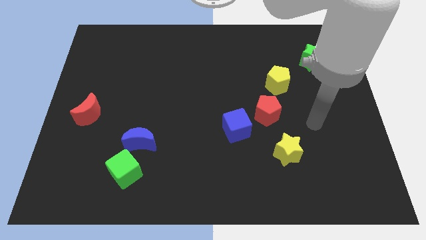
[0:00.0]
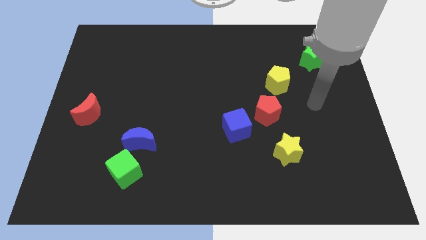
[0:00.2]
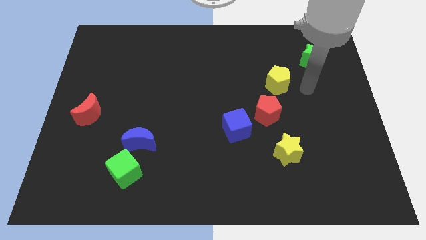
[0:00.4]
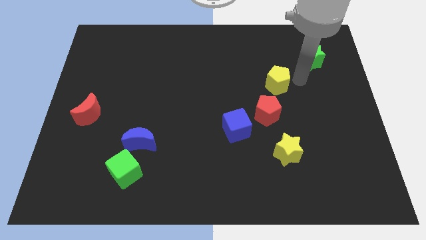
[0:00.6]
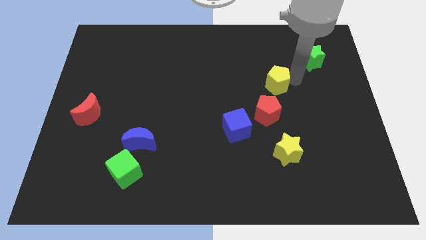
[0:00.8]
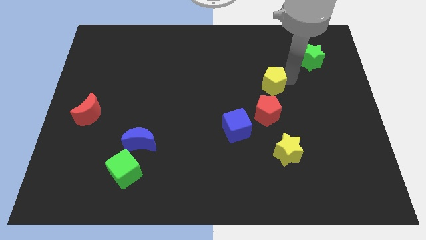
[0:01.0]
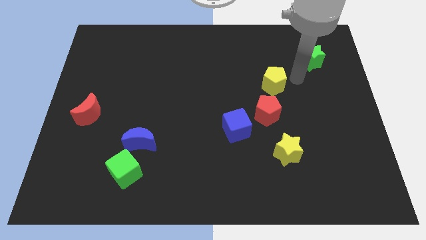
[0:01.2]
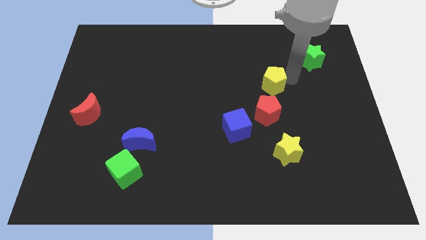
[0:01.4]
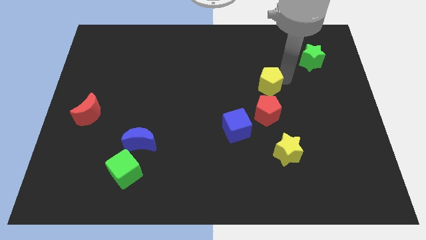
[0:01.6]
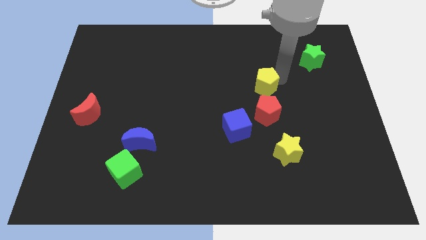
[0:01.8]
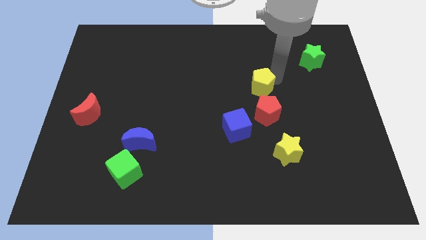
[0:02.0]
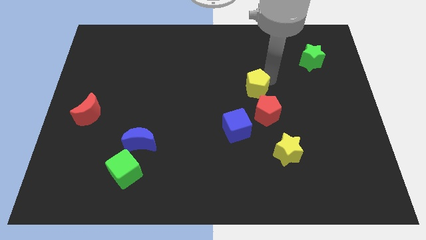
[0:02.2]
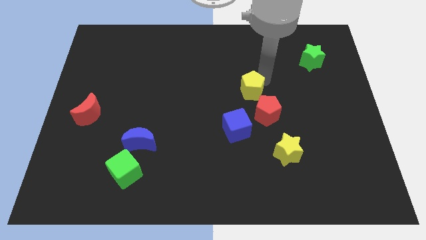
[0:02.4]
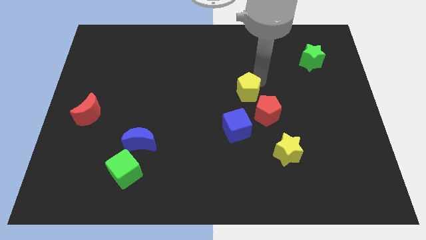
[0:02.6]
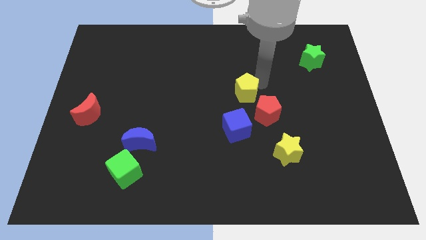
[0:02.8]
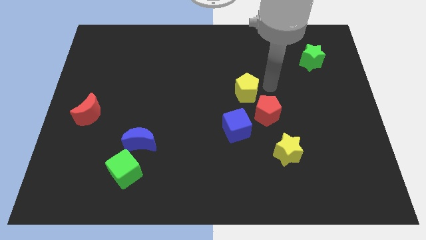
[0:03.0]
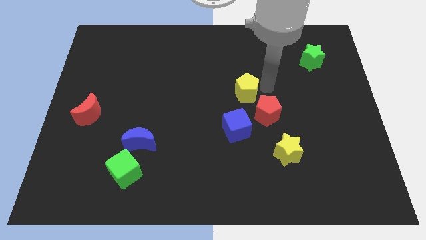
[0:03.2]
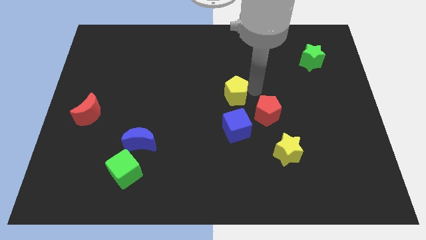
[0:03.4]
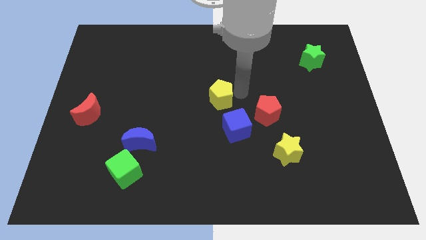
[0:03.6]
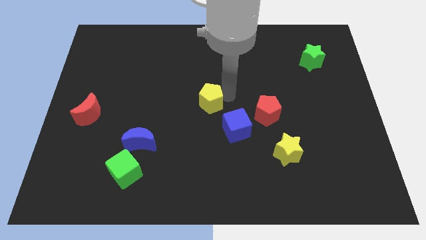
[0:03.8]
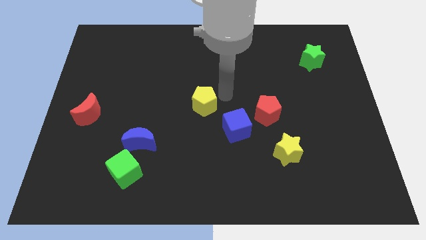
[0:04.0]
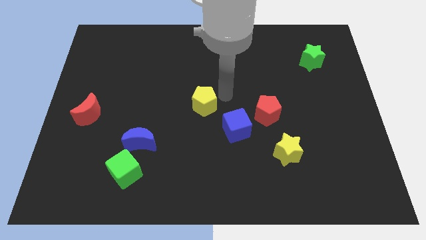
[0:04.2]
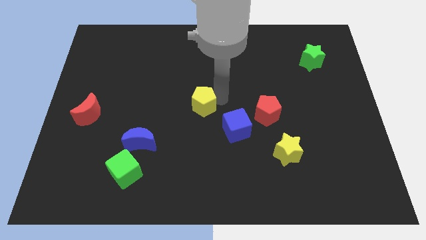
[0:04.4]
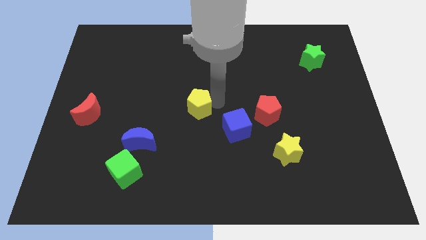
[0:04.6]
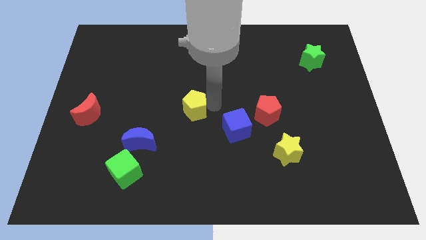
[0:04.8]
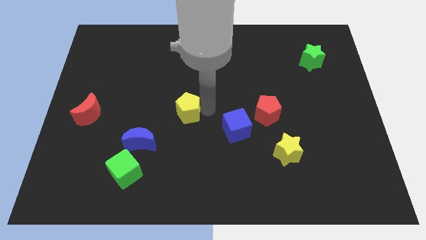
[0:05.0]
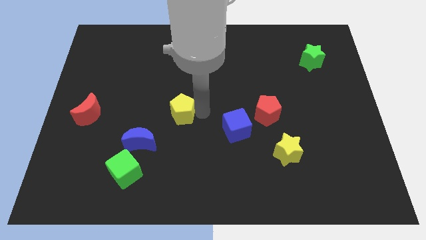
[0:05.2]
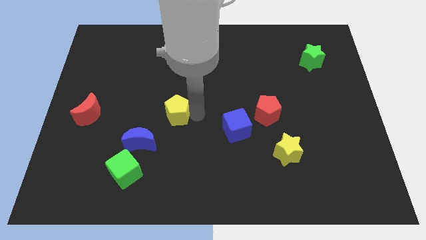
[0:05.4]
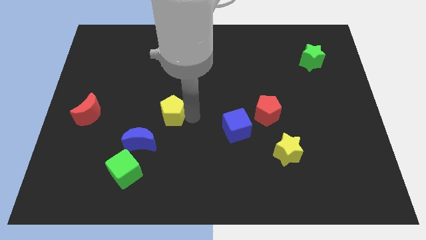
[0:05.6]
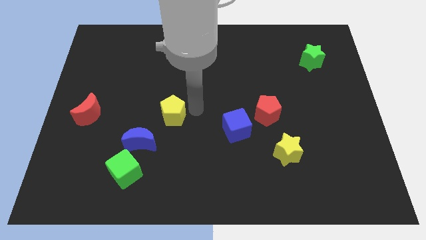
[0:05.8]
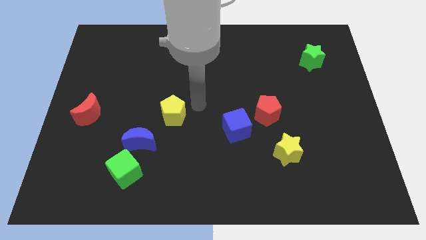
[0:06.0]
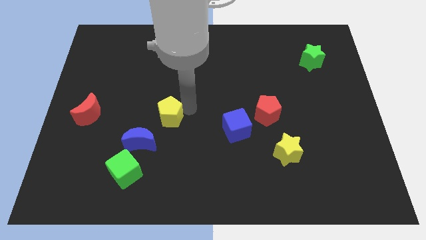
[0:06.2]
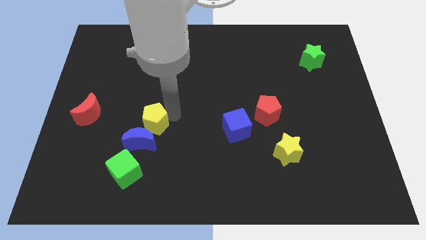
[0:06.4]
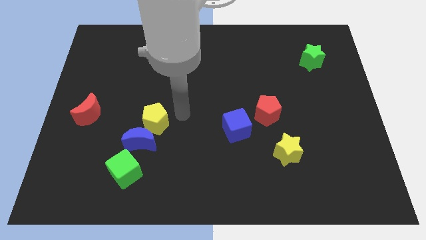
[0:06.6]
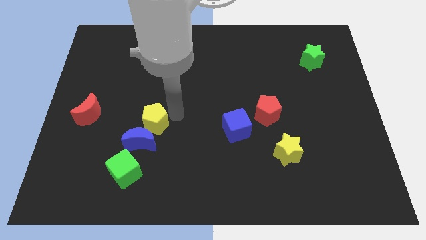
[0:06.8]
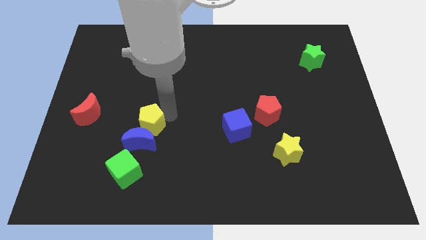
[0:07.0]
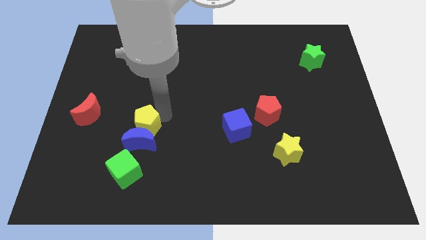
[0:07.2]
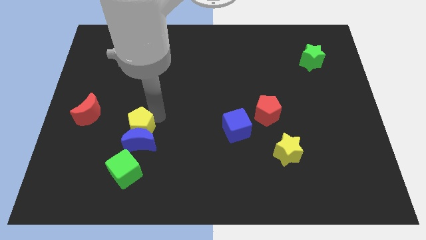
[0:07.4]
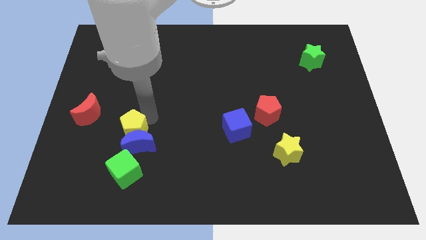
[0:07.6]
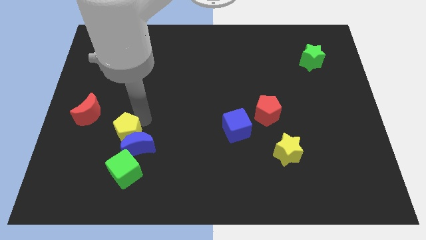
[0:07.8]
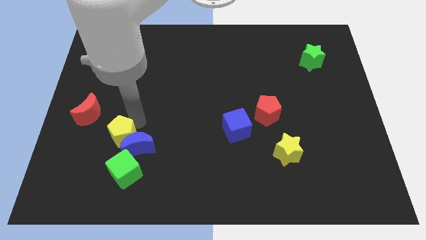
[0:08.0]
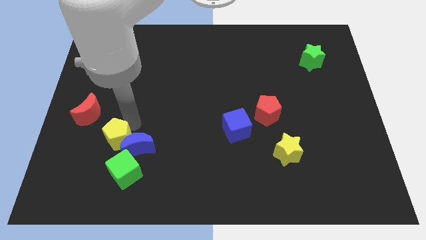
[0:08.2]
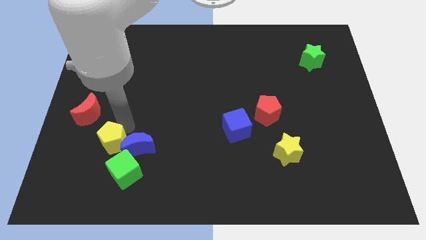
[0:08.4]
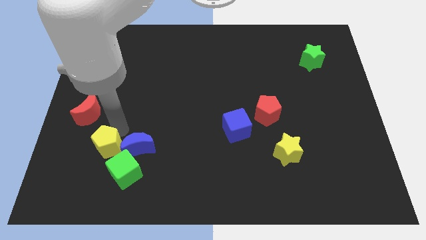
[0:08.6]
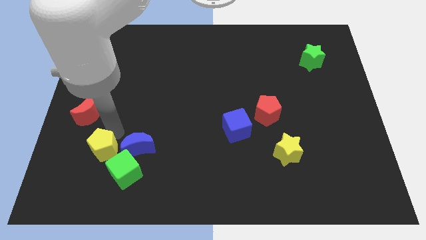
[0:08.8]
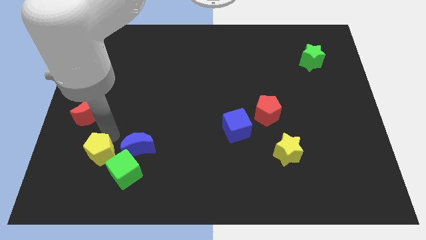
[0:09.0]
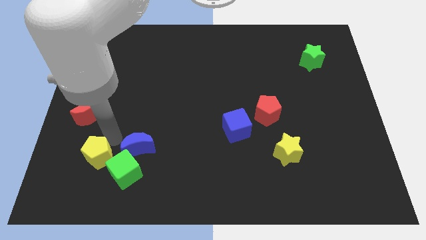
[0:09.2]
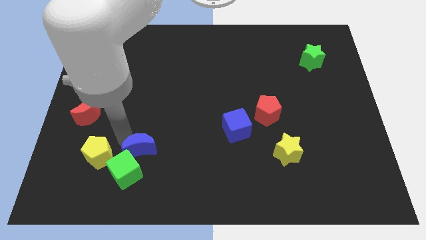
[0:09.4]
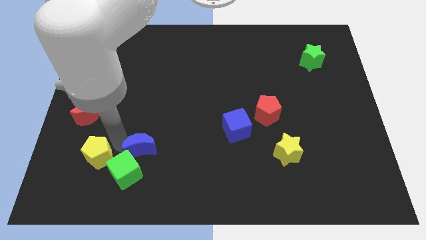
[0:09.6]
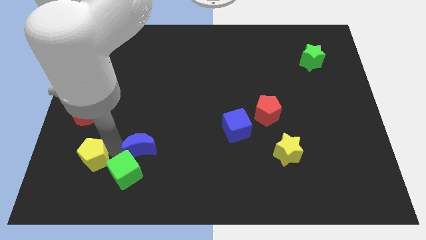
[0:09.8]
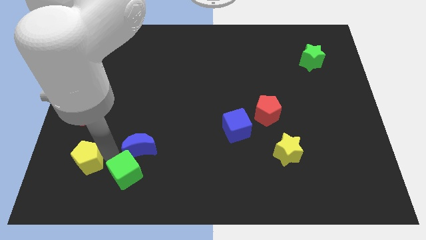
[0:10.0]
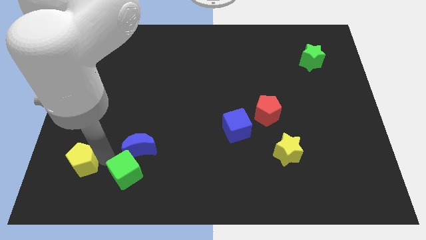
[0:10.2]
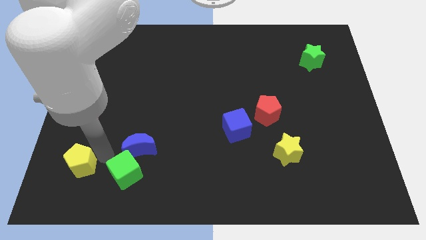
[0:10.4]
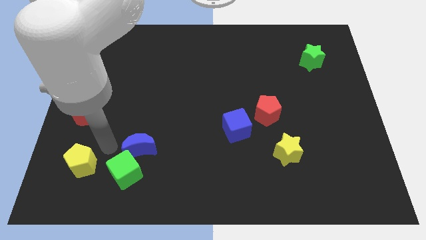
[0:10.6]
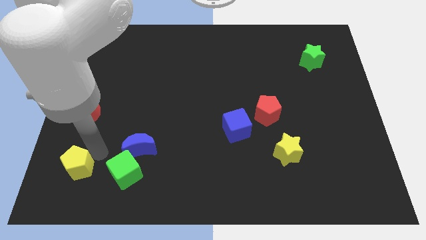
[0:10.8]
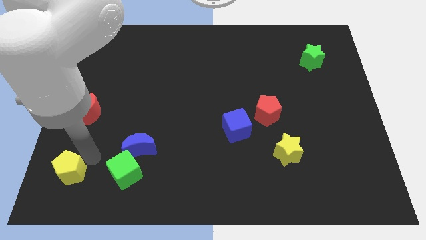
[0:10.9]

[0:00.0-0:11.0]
move the yellow pentagon to the bottom left
